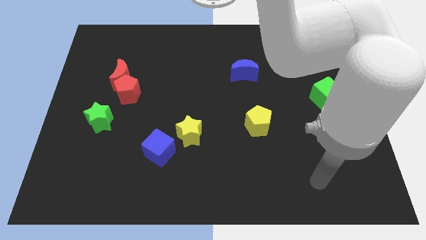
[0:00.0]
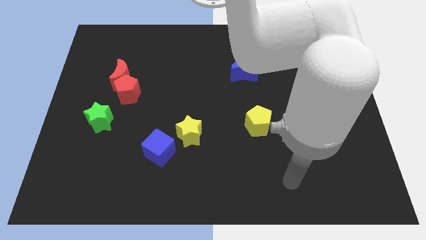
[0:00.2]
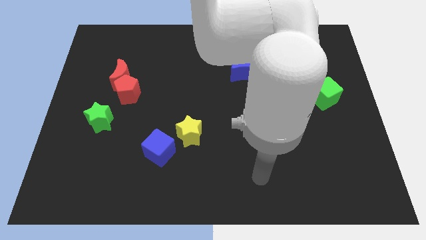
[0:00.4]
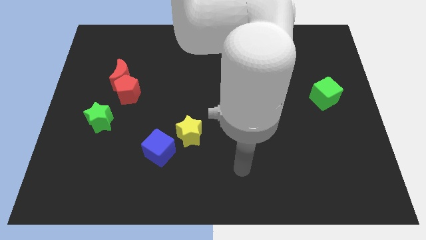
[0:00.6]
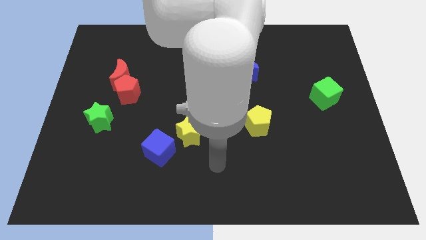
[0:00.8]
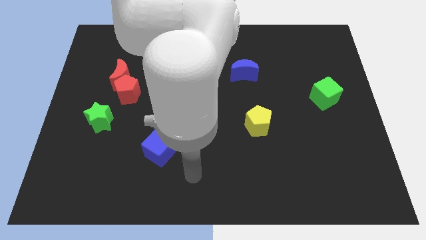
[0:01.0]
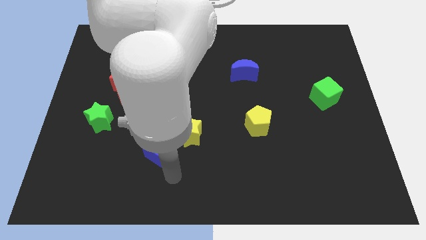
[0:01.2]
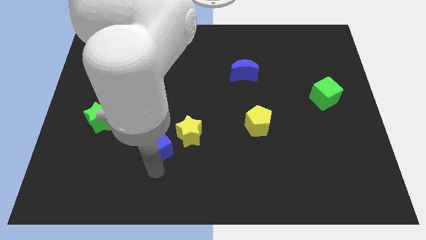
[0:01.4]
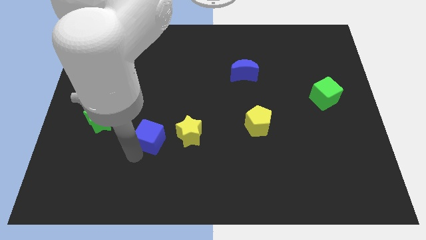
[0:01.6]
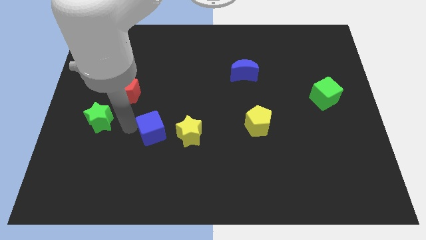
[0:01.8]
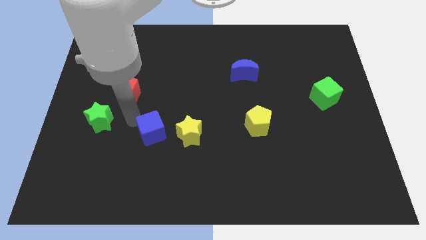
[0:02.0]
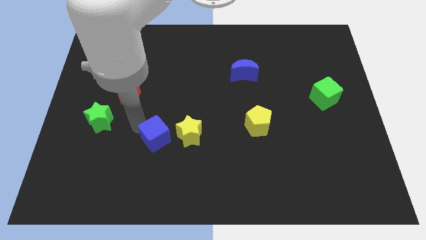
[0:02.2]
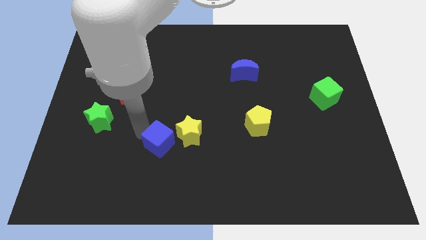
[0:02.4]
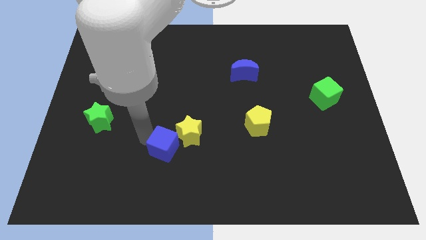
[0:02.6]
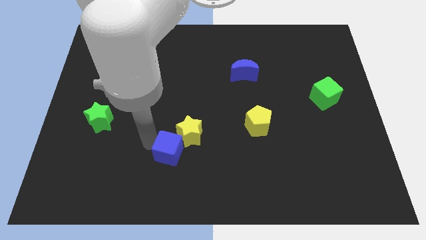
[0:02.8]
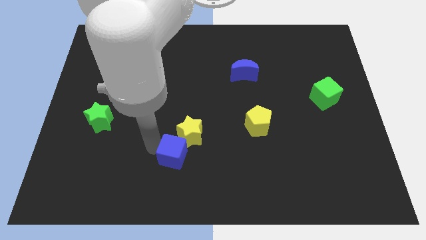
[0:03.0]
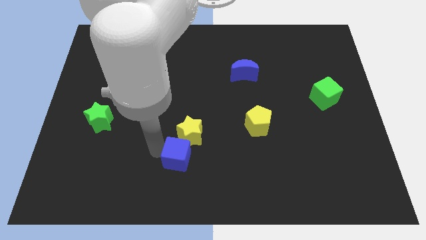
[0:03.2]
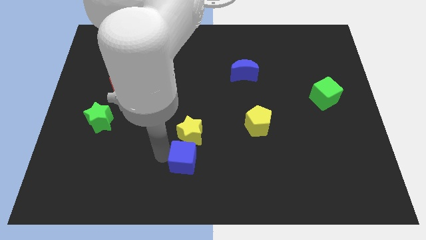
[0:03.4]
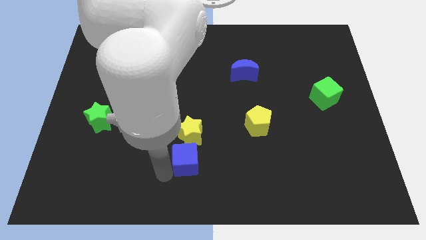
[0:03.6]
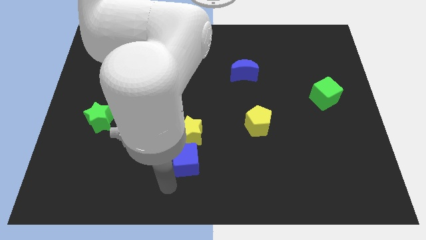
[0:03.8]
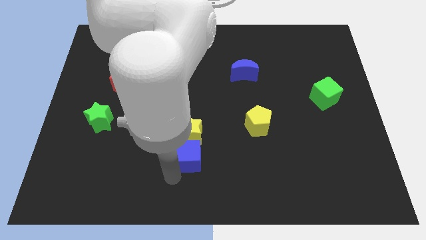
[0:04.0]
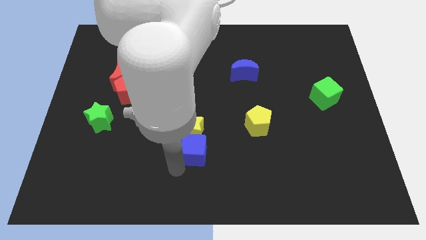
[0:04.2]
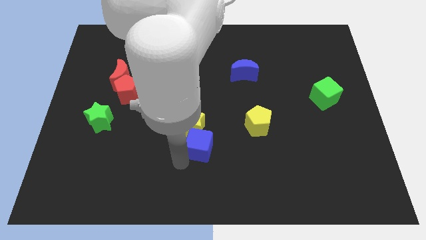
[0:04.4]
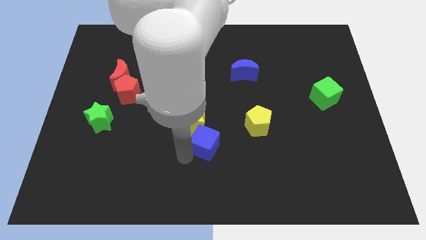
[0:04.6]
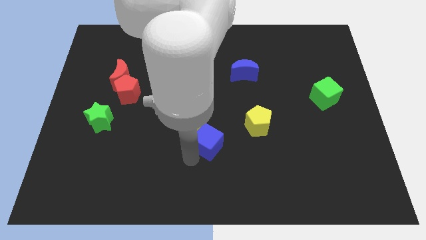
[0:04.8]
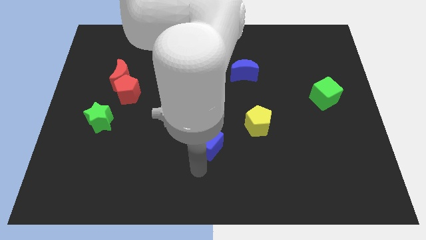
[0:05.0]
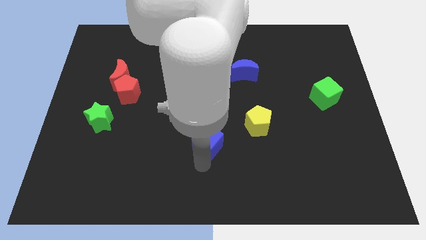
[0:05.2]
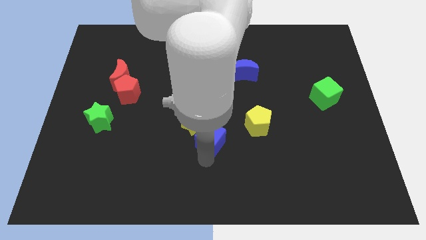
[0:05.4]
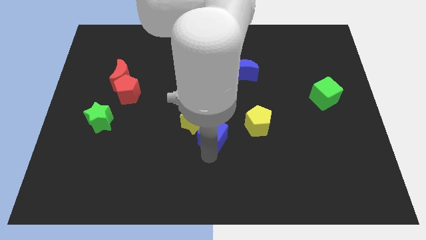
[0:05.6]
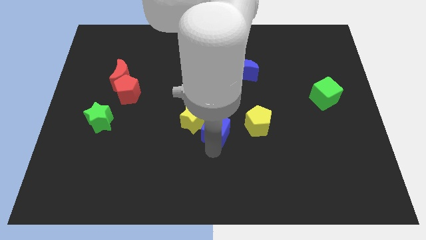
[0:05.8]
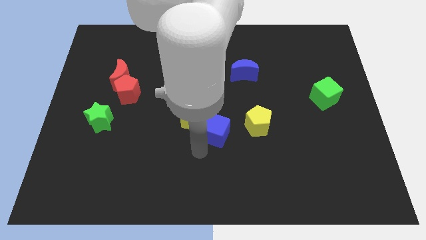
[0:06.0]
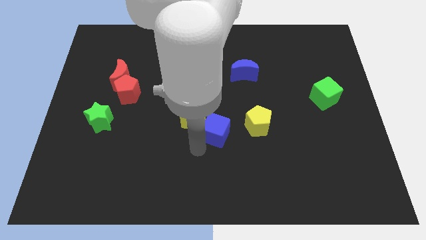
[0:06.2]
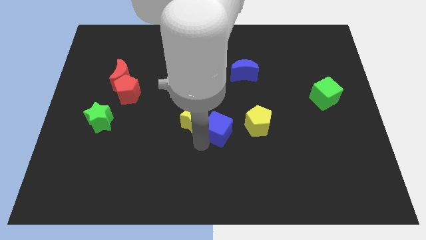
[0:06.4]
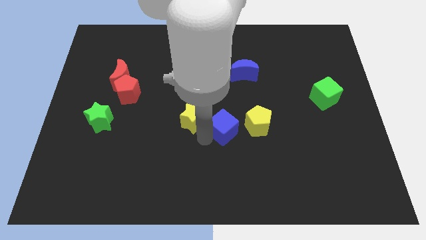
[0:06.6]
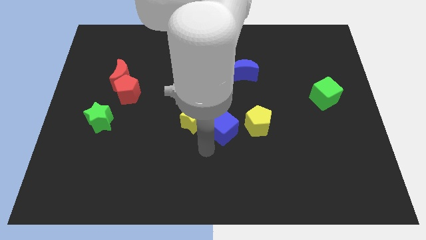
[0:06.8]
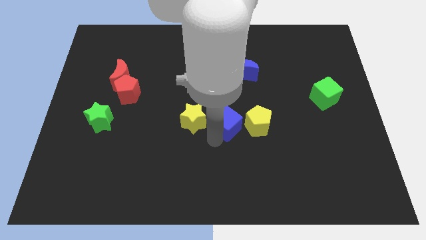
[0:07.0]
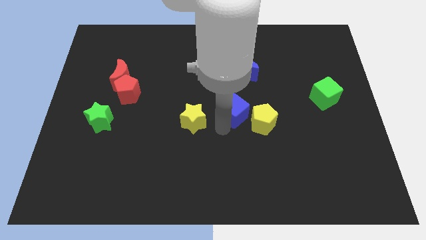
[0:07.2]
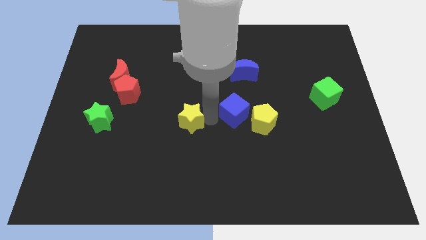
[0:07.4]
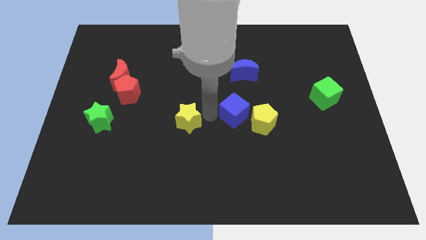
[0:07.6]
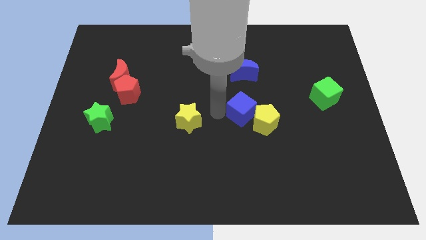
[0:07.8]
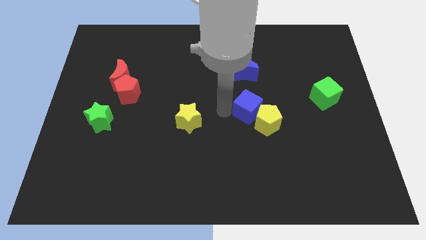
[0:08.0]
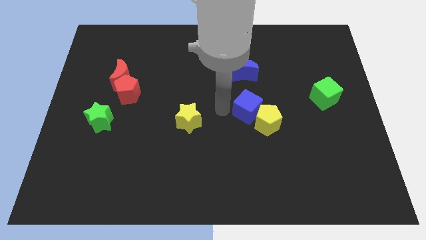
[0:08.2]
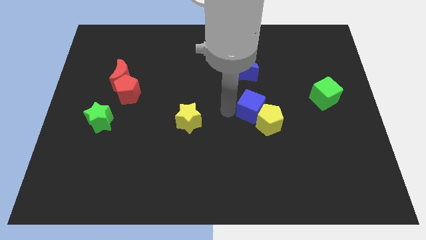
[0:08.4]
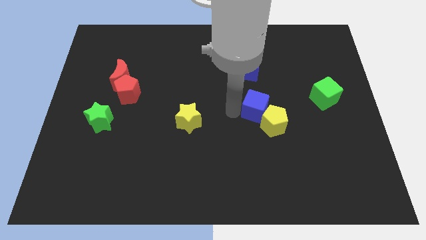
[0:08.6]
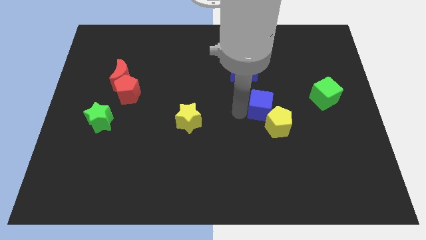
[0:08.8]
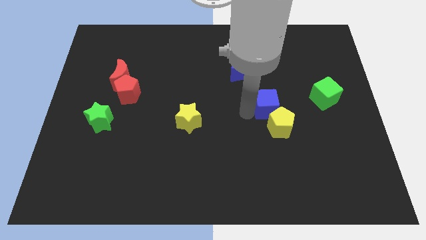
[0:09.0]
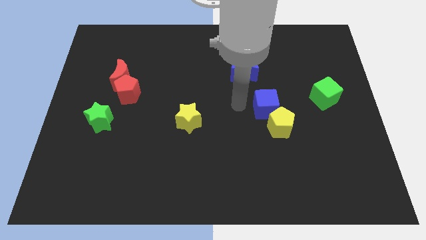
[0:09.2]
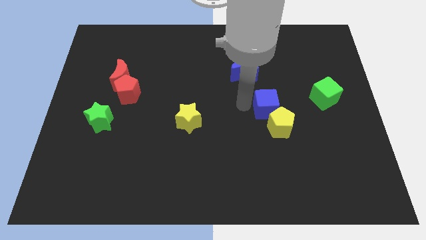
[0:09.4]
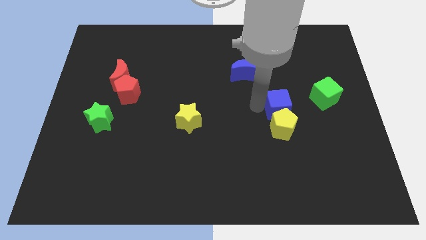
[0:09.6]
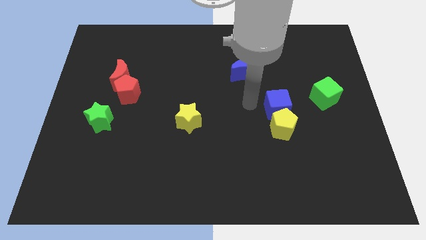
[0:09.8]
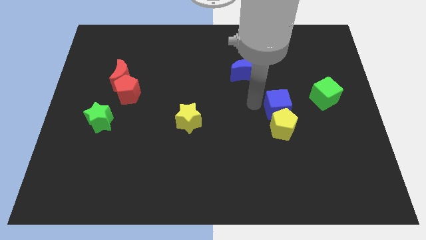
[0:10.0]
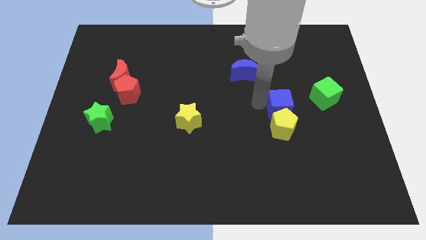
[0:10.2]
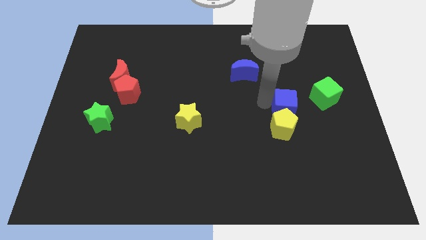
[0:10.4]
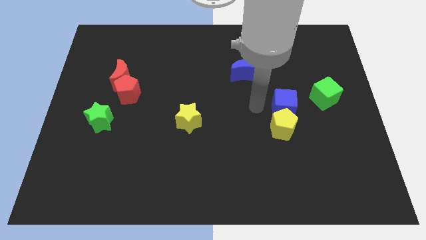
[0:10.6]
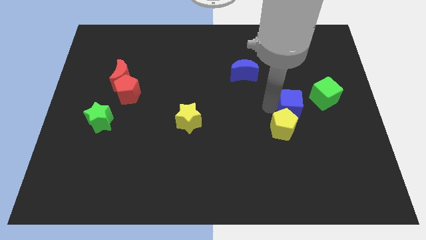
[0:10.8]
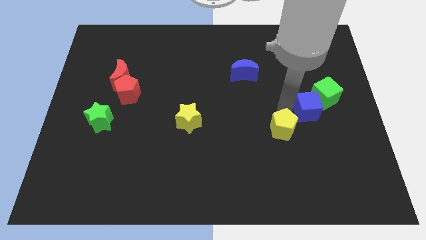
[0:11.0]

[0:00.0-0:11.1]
put the blue cube close to the green cube
